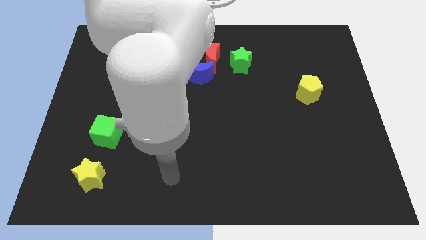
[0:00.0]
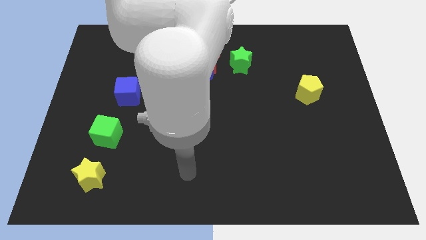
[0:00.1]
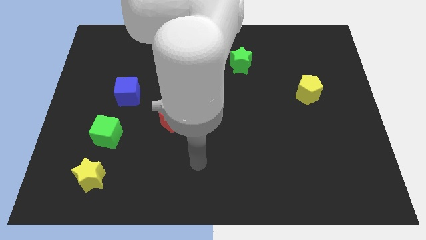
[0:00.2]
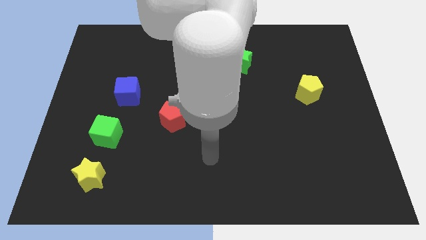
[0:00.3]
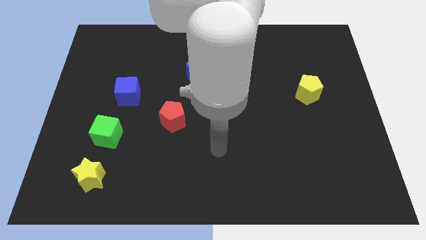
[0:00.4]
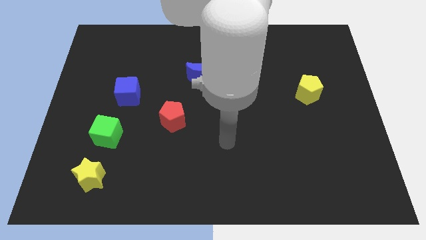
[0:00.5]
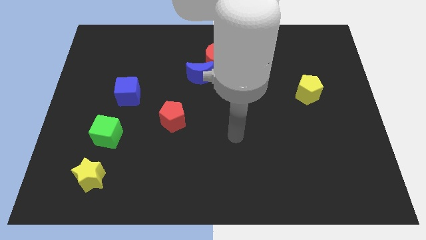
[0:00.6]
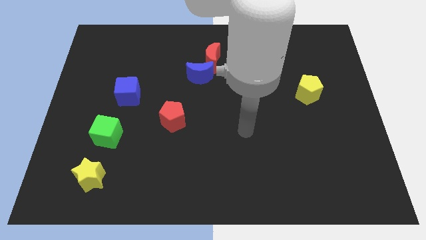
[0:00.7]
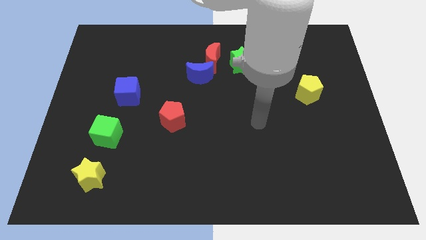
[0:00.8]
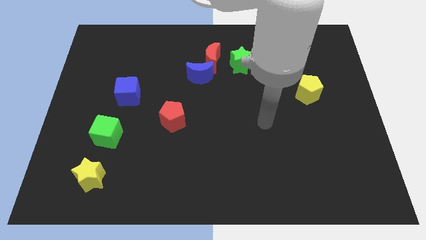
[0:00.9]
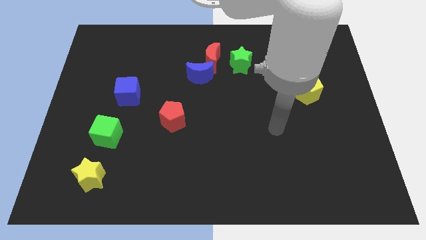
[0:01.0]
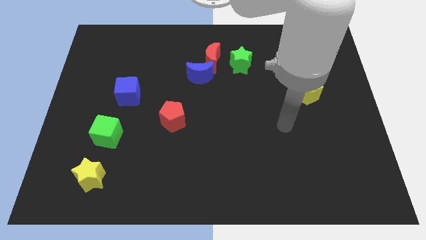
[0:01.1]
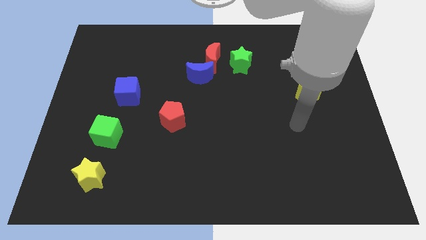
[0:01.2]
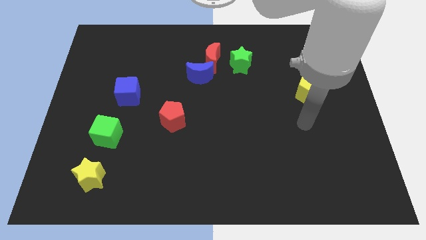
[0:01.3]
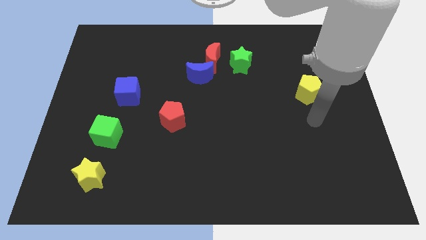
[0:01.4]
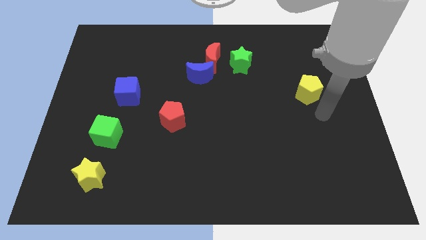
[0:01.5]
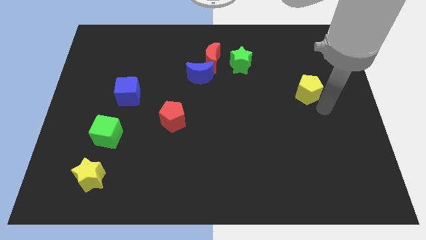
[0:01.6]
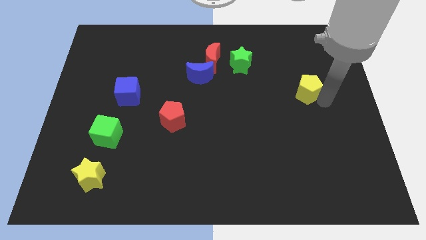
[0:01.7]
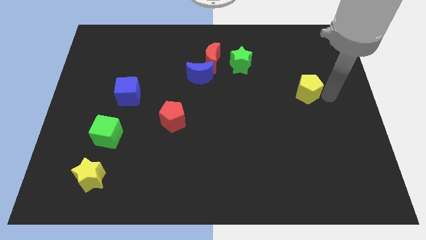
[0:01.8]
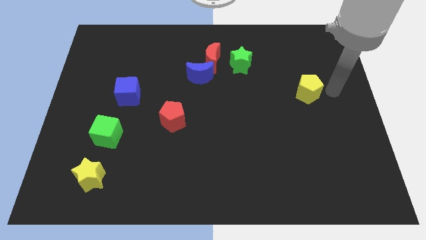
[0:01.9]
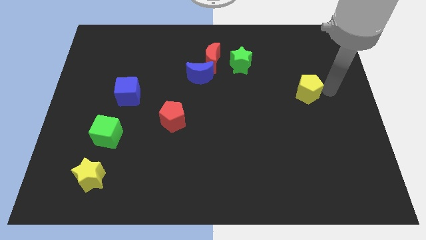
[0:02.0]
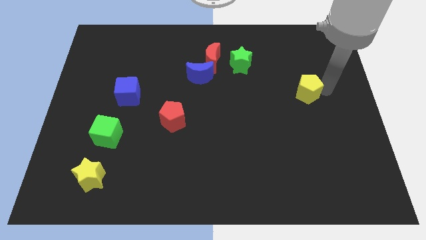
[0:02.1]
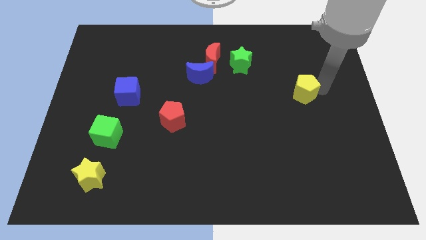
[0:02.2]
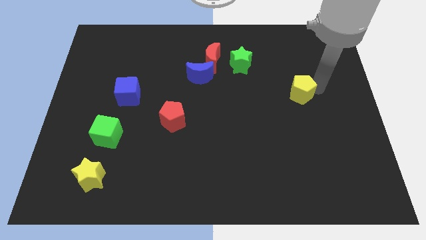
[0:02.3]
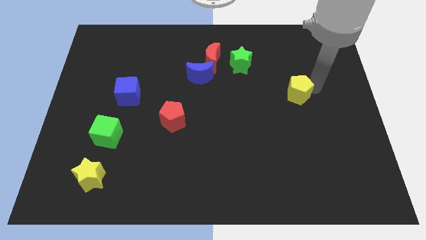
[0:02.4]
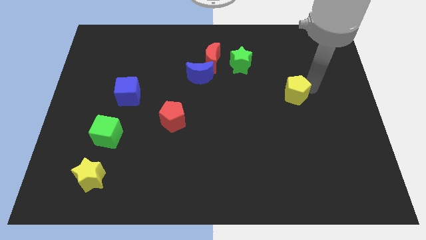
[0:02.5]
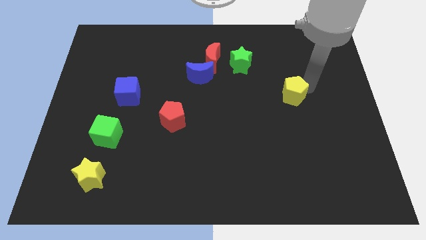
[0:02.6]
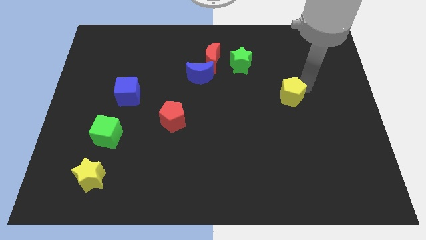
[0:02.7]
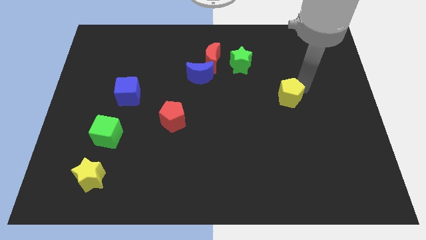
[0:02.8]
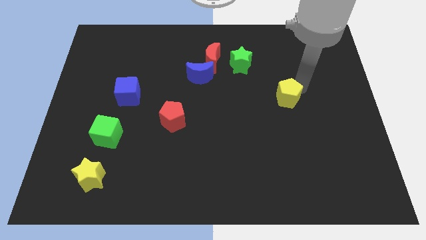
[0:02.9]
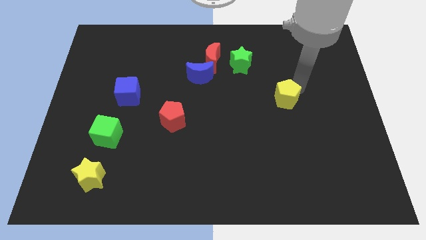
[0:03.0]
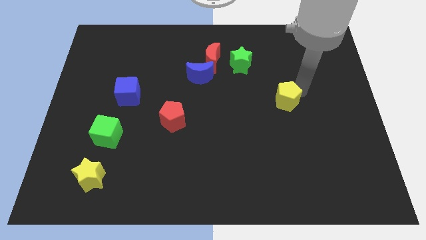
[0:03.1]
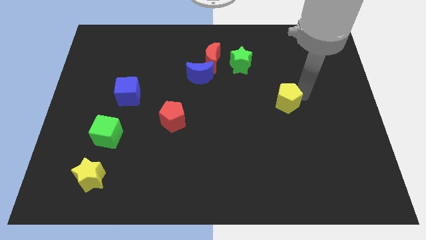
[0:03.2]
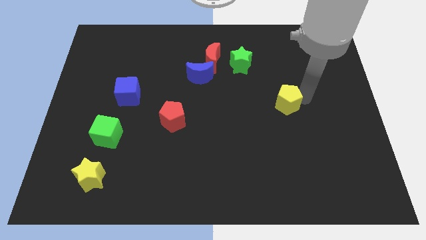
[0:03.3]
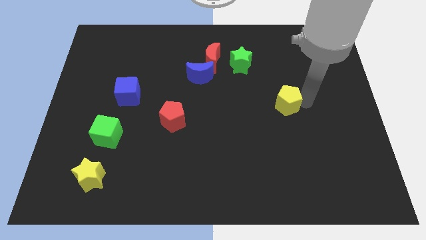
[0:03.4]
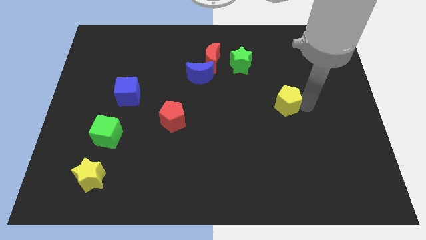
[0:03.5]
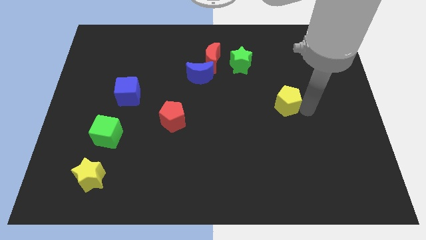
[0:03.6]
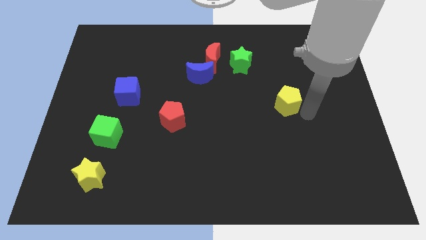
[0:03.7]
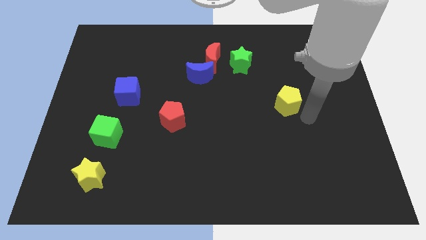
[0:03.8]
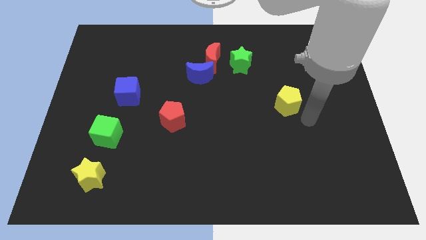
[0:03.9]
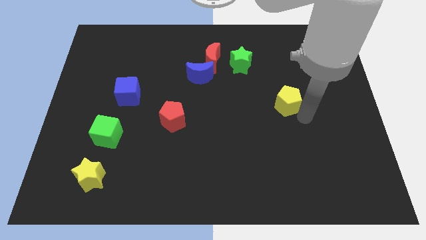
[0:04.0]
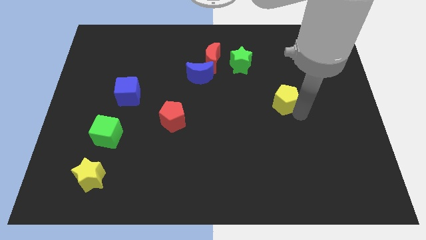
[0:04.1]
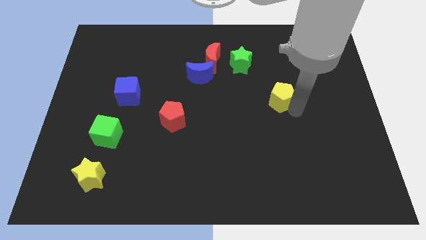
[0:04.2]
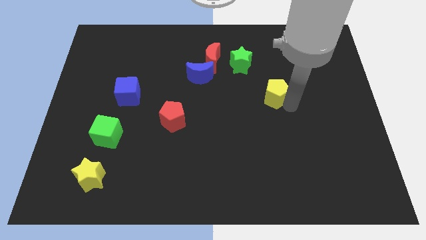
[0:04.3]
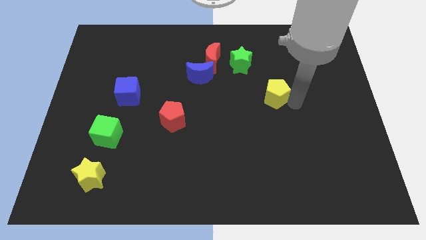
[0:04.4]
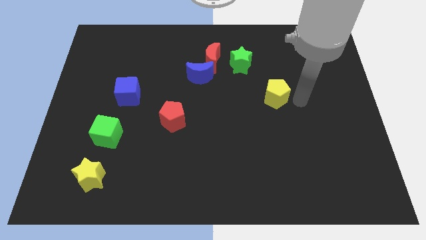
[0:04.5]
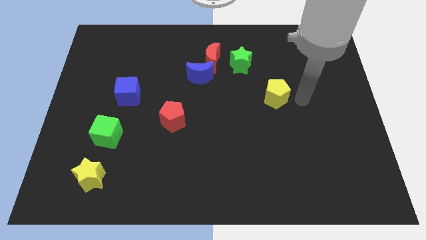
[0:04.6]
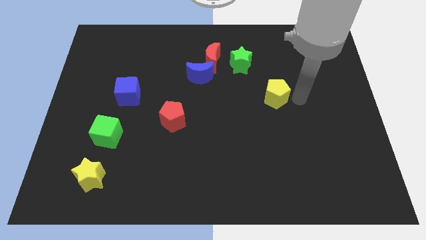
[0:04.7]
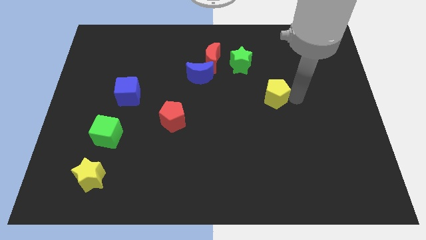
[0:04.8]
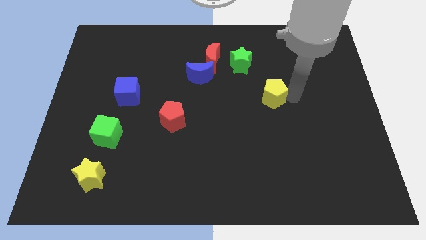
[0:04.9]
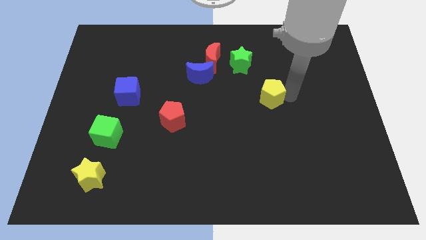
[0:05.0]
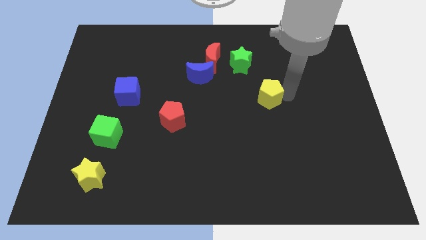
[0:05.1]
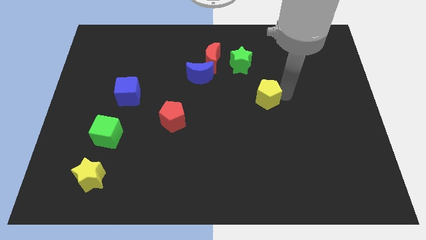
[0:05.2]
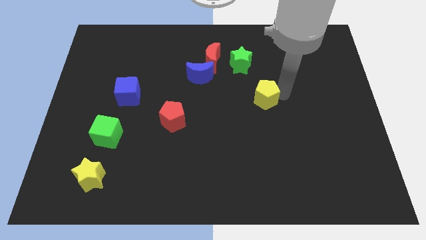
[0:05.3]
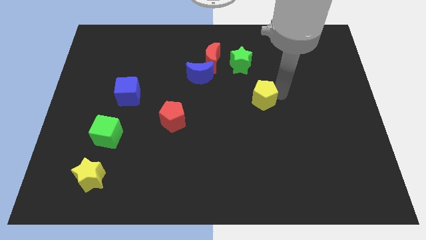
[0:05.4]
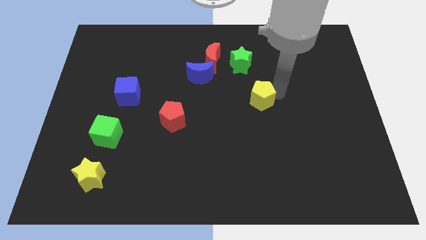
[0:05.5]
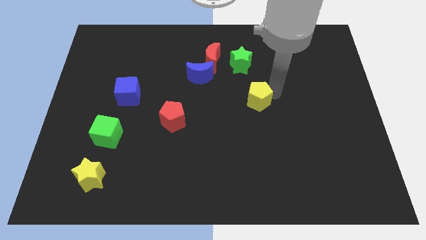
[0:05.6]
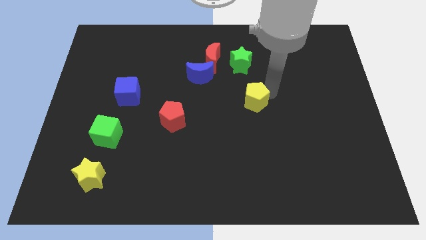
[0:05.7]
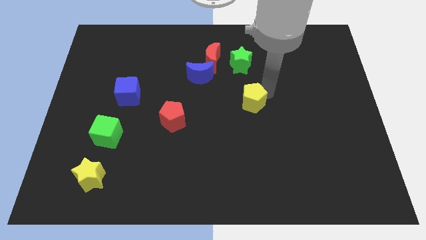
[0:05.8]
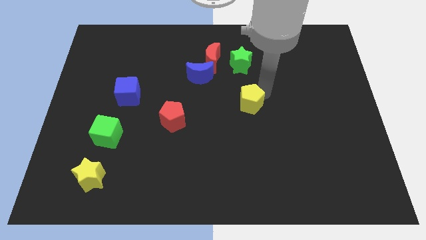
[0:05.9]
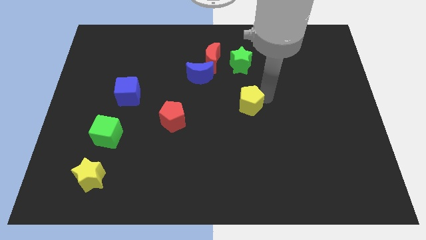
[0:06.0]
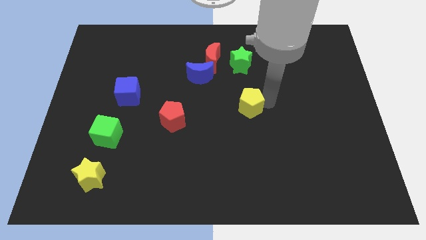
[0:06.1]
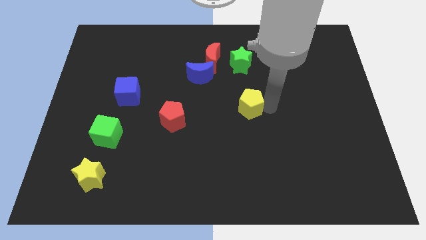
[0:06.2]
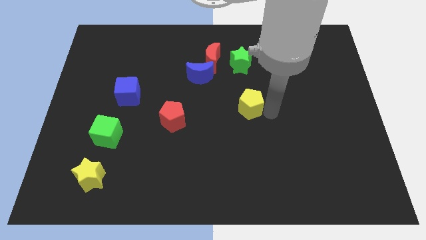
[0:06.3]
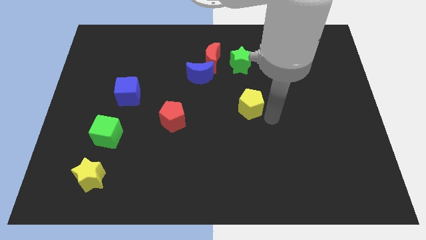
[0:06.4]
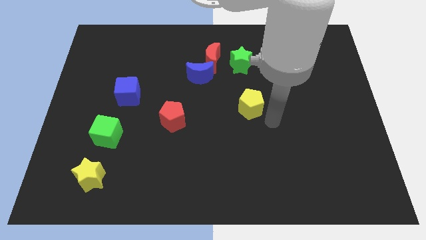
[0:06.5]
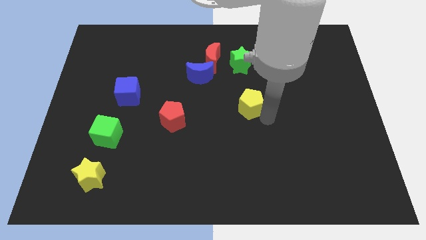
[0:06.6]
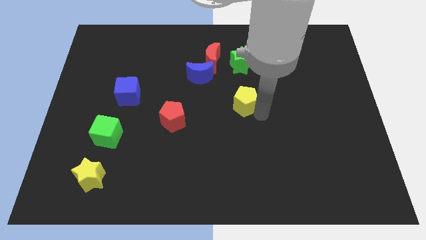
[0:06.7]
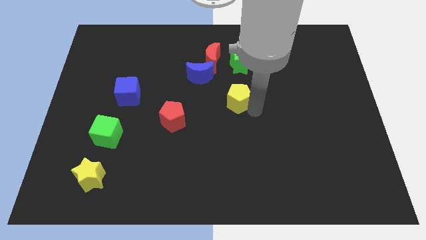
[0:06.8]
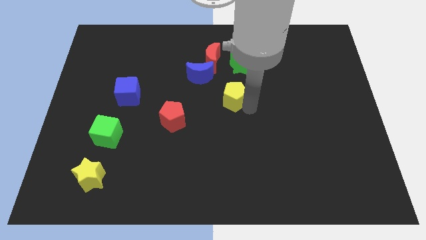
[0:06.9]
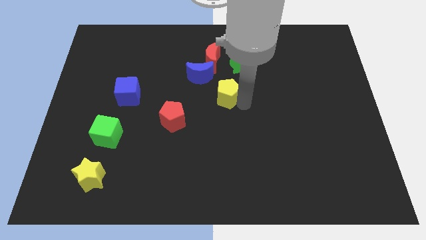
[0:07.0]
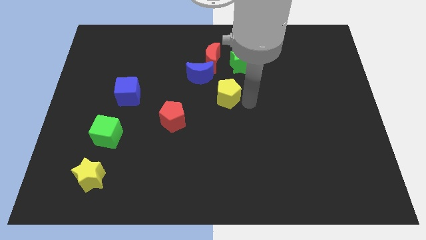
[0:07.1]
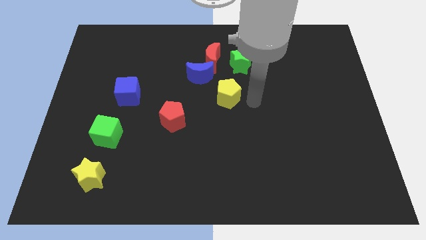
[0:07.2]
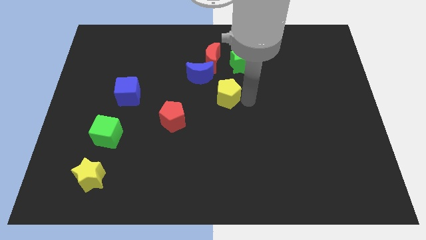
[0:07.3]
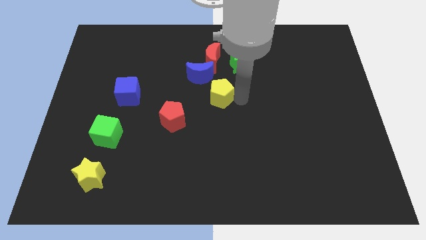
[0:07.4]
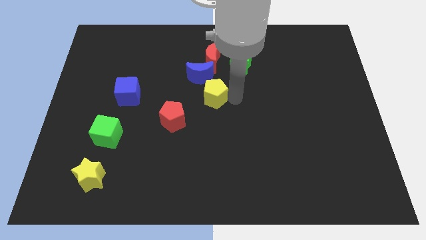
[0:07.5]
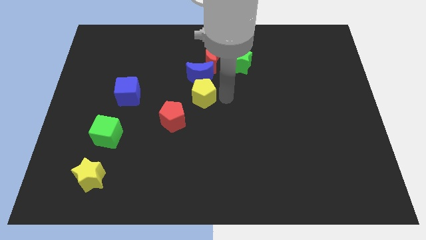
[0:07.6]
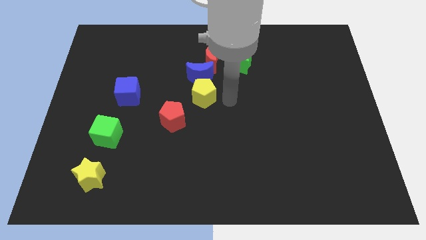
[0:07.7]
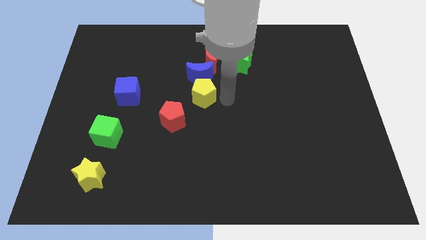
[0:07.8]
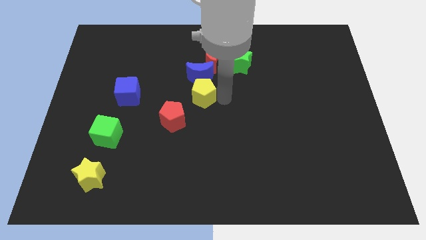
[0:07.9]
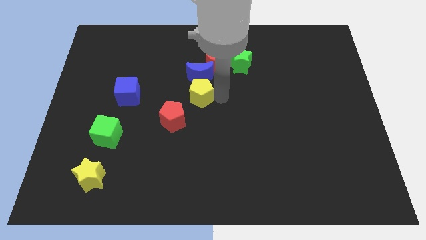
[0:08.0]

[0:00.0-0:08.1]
slide the yellow pentagon diagonally down and to the left of the blue moon
